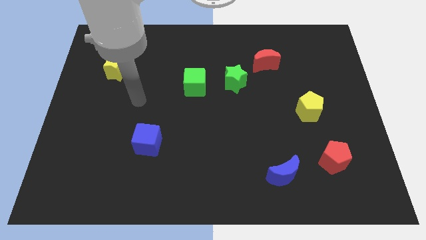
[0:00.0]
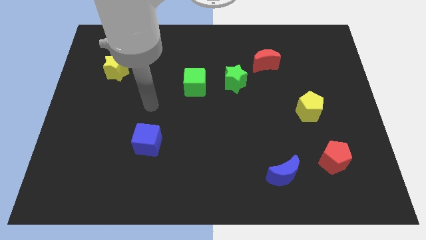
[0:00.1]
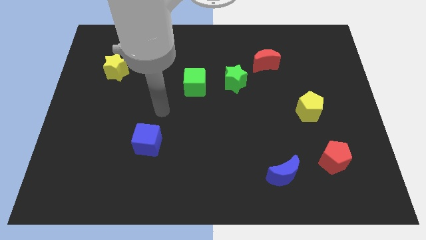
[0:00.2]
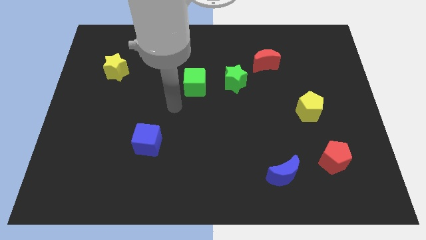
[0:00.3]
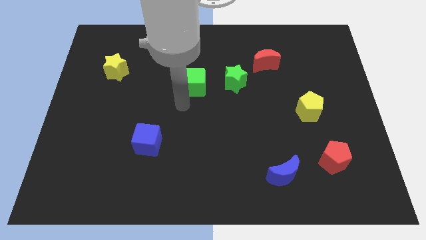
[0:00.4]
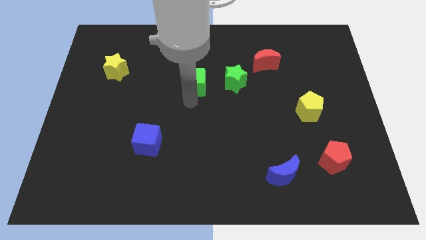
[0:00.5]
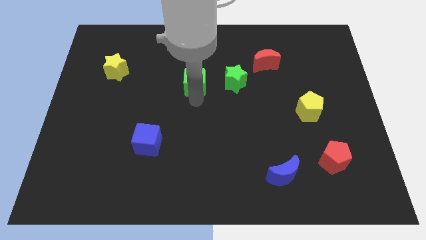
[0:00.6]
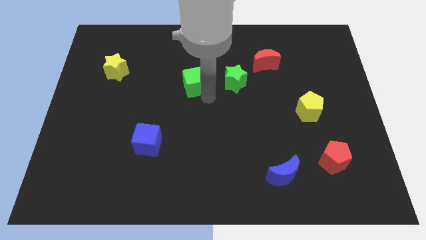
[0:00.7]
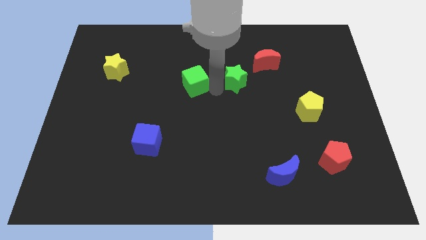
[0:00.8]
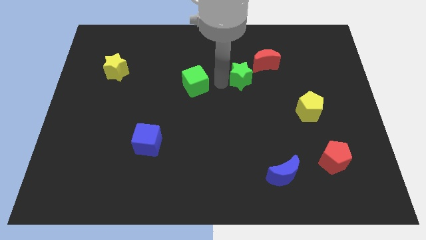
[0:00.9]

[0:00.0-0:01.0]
move the green cube away from the green star

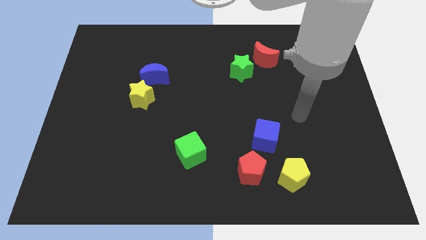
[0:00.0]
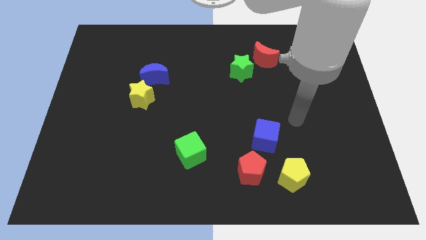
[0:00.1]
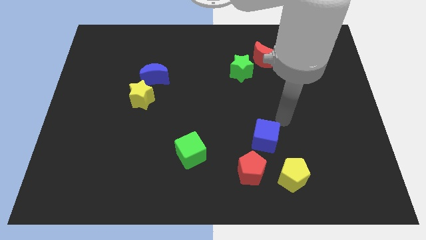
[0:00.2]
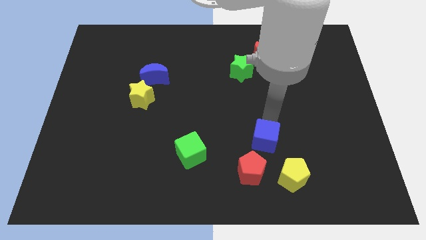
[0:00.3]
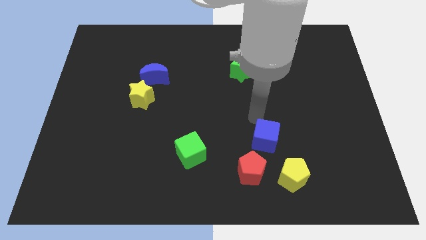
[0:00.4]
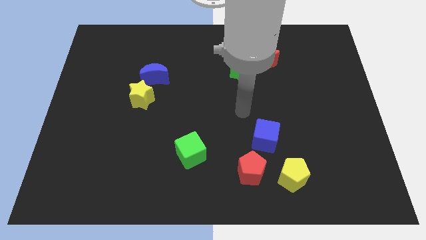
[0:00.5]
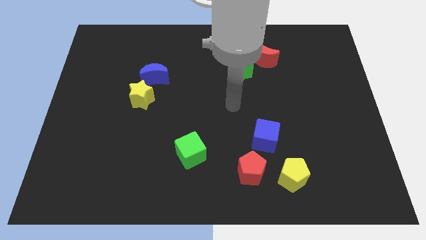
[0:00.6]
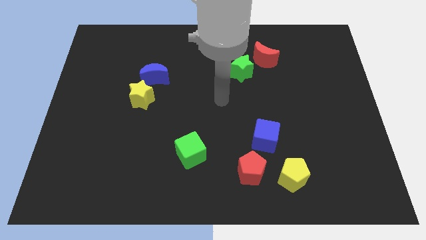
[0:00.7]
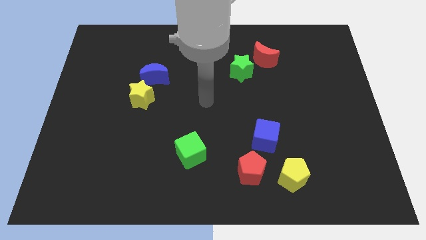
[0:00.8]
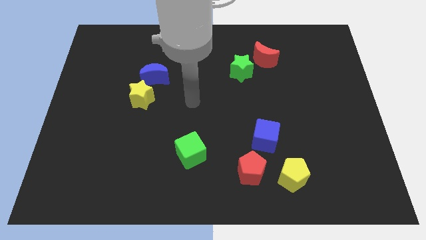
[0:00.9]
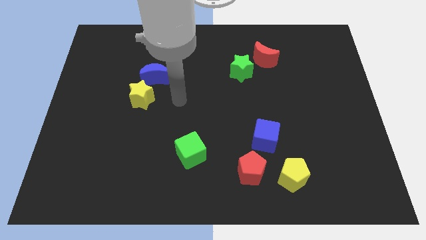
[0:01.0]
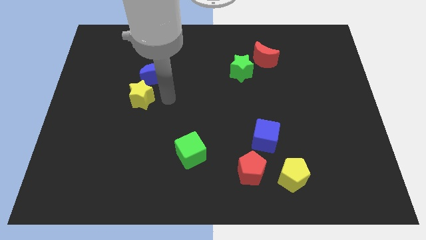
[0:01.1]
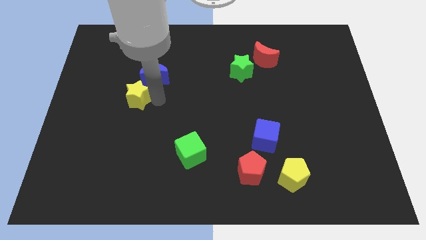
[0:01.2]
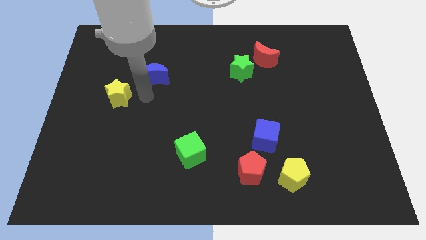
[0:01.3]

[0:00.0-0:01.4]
move the blue moon away from the yellow star

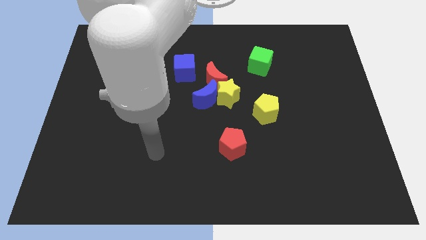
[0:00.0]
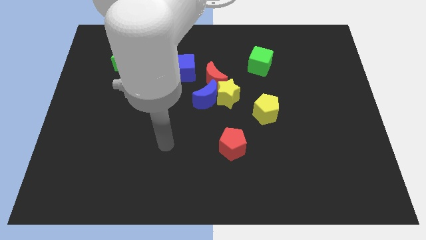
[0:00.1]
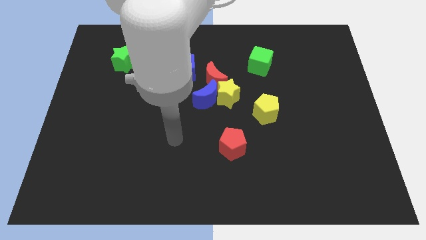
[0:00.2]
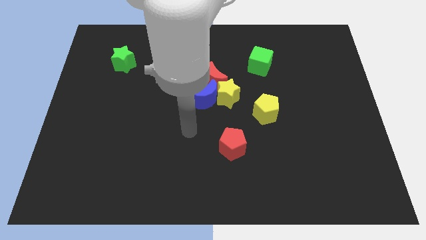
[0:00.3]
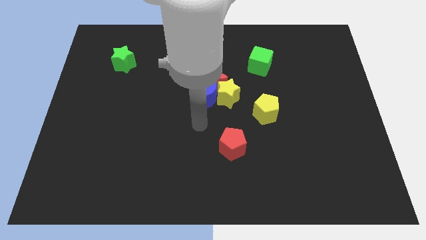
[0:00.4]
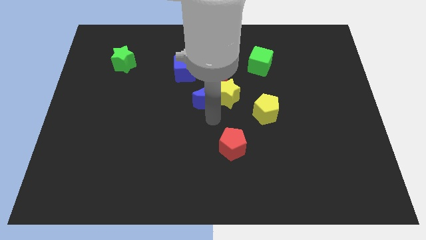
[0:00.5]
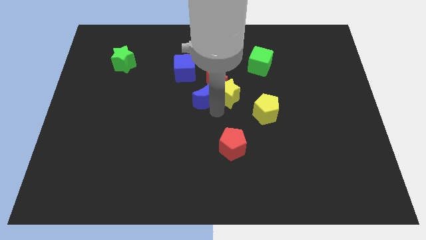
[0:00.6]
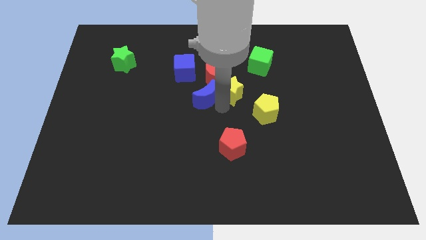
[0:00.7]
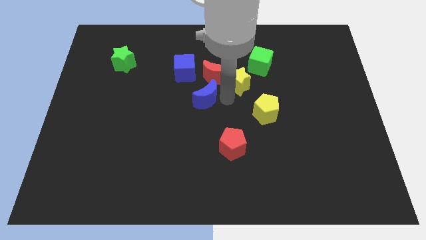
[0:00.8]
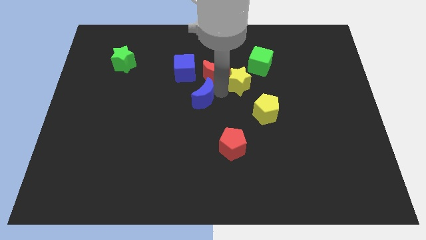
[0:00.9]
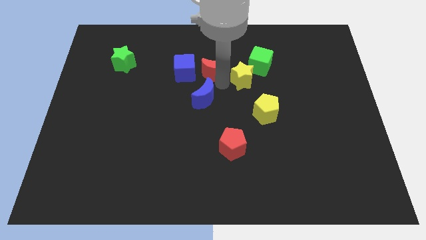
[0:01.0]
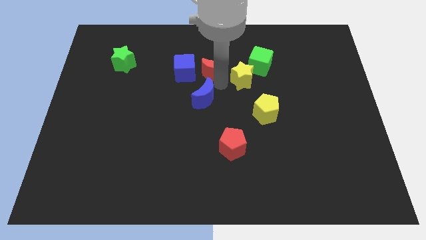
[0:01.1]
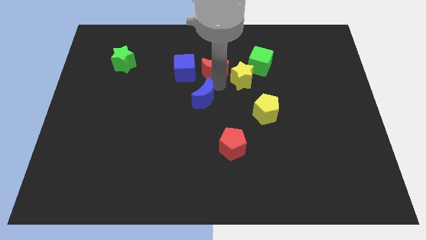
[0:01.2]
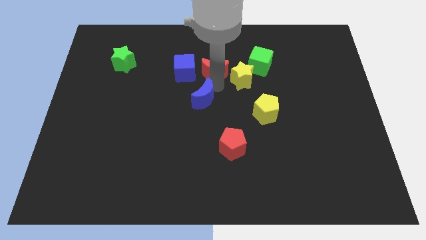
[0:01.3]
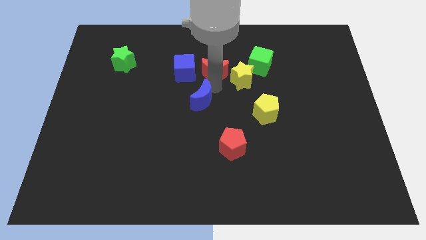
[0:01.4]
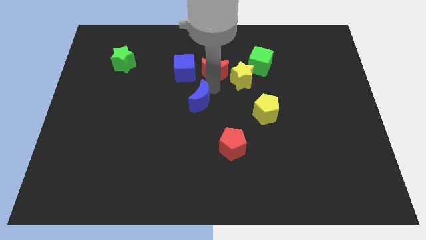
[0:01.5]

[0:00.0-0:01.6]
pull the blue moon apart from the yellow star and red moon

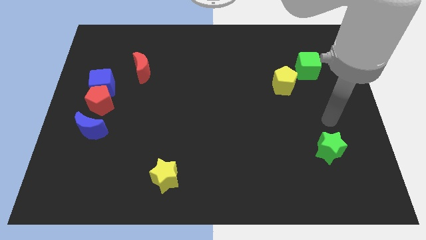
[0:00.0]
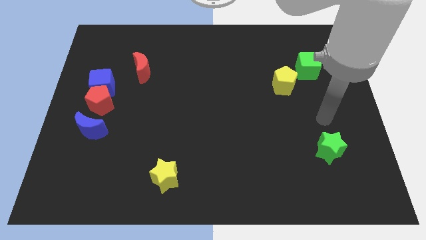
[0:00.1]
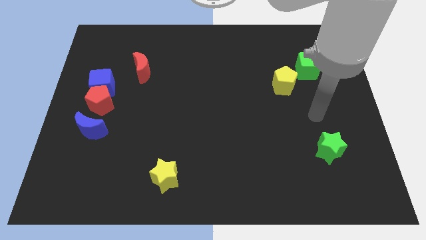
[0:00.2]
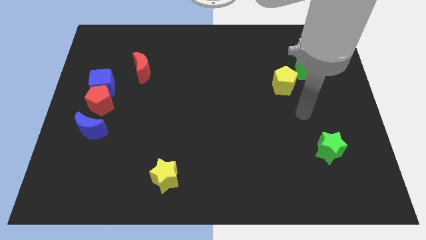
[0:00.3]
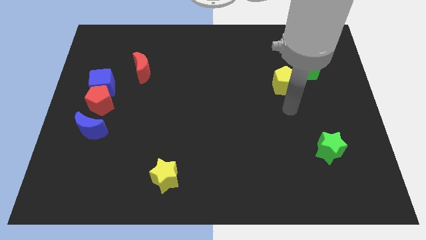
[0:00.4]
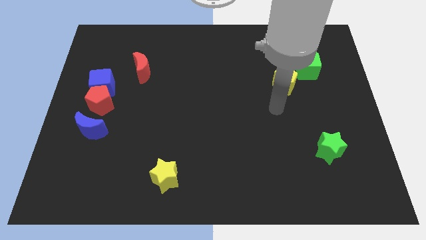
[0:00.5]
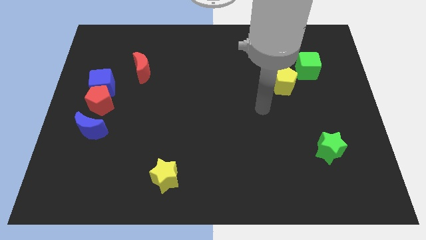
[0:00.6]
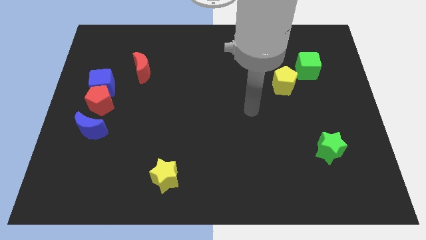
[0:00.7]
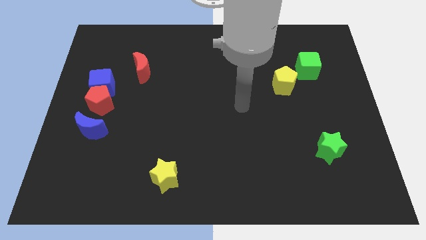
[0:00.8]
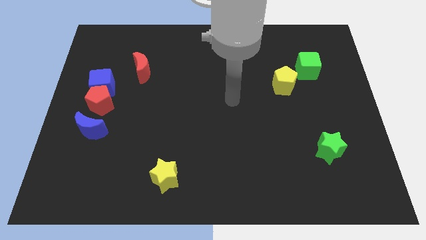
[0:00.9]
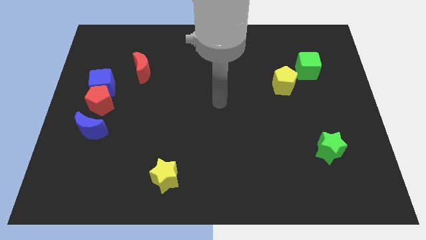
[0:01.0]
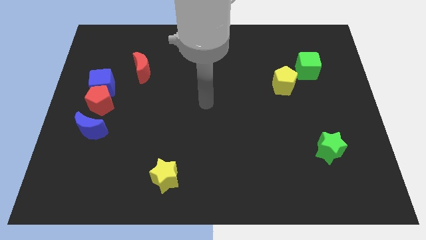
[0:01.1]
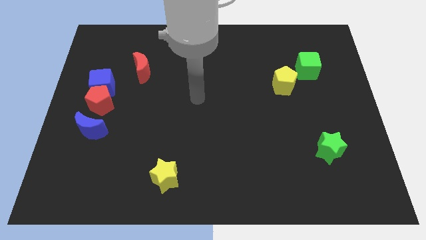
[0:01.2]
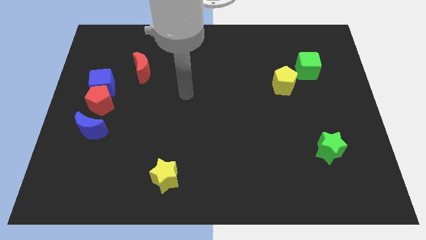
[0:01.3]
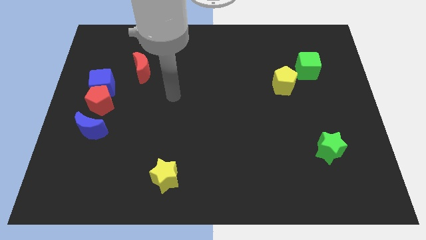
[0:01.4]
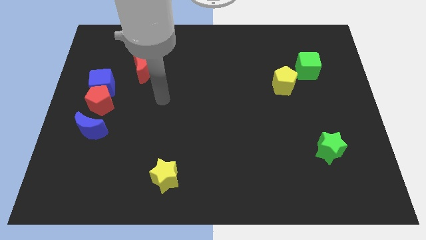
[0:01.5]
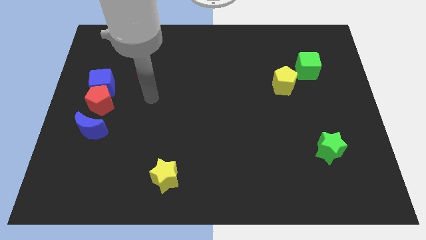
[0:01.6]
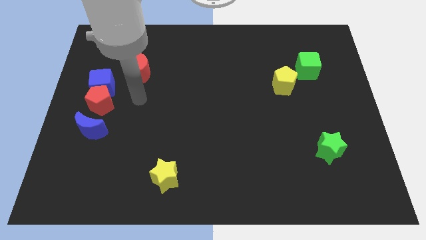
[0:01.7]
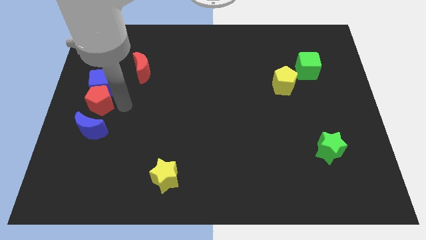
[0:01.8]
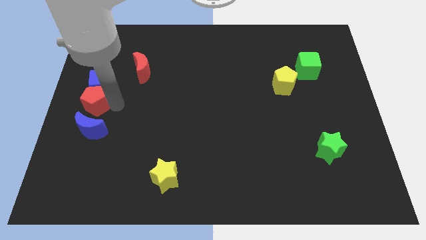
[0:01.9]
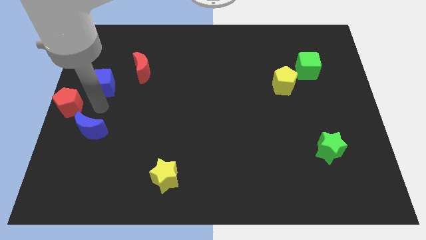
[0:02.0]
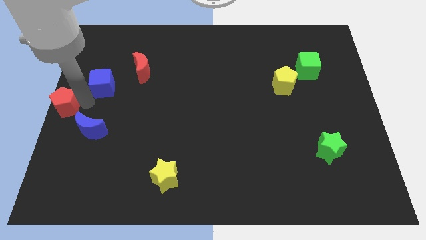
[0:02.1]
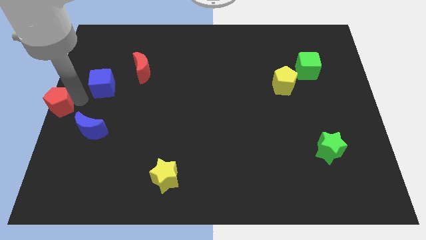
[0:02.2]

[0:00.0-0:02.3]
separate the blue cube from the red pentagon

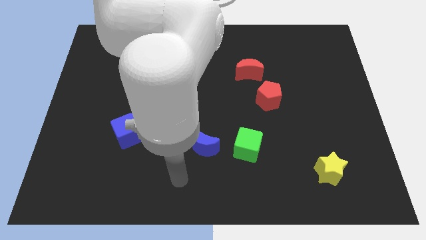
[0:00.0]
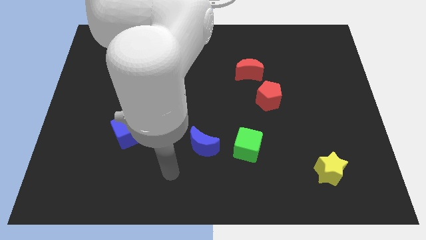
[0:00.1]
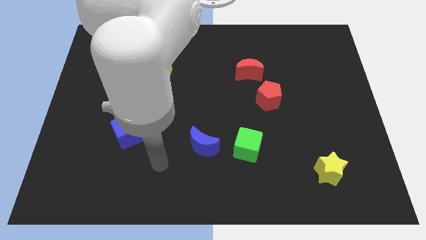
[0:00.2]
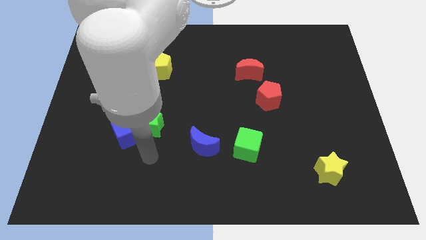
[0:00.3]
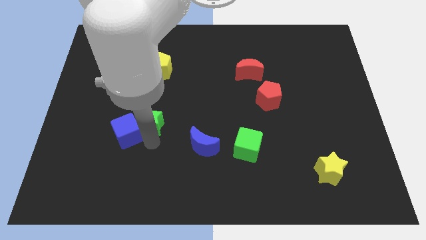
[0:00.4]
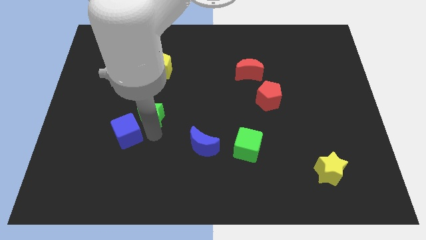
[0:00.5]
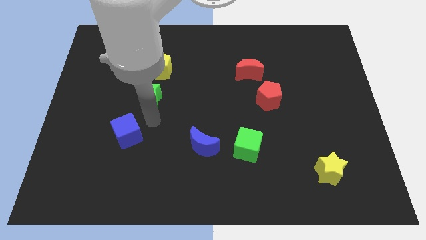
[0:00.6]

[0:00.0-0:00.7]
separate the blue cube from the green star

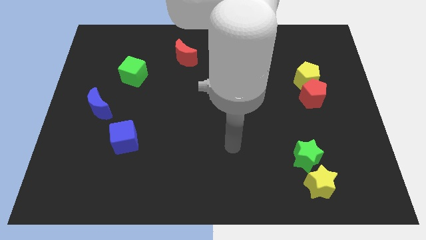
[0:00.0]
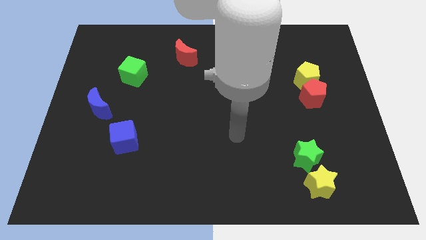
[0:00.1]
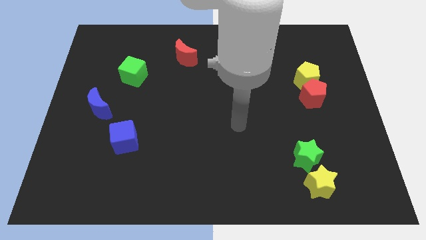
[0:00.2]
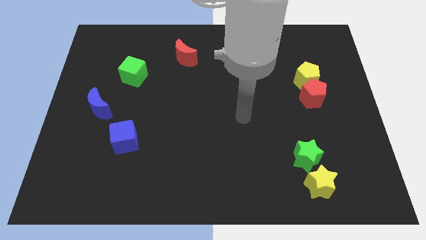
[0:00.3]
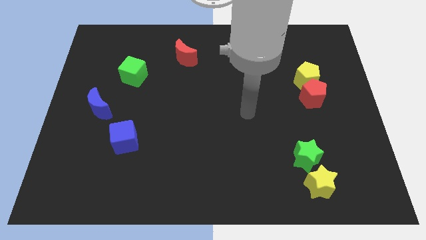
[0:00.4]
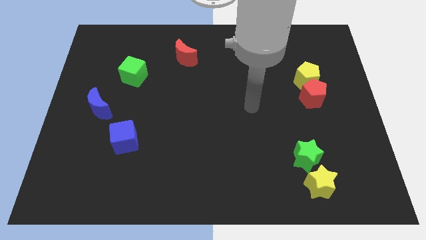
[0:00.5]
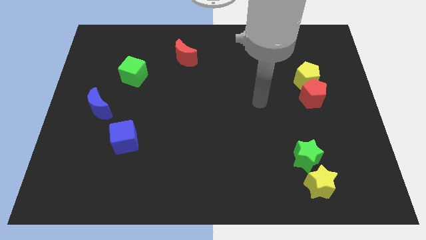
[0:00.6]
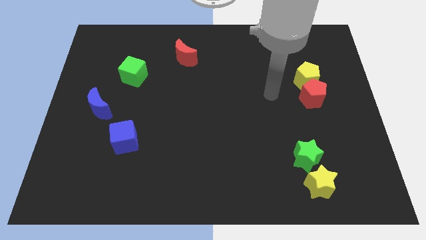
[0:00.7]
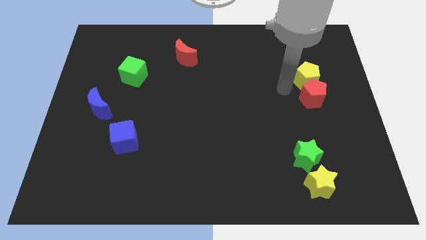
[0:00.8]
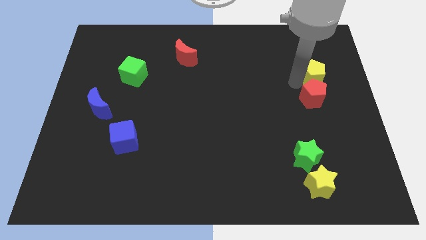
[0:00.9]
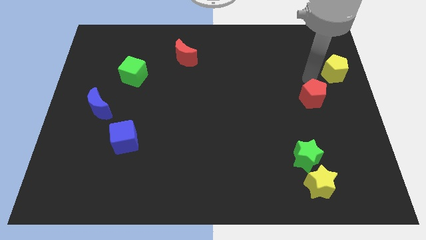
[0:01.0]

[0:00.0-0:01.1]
pull the red pentagon apart from the yellow pentagon

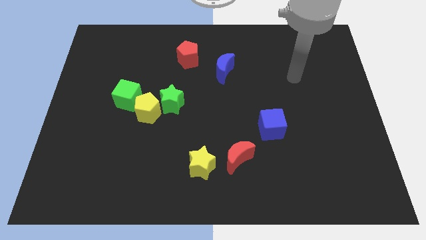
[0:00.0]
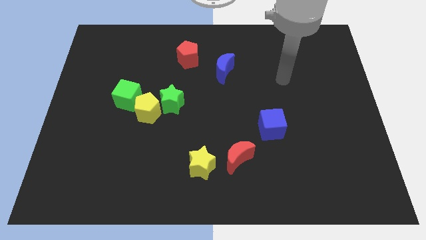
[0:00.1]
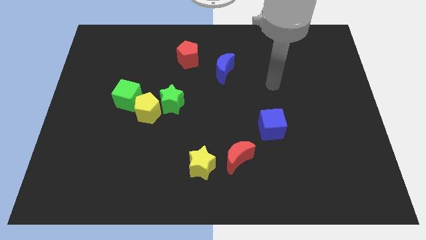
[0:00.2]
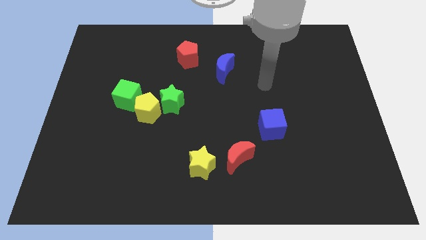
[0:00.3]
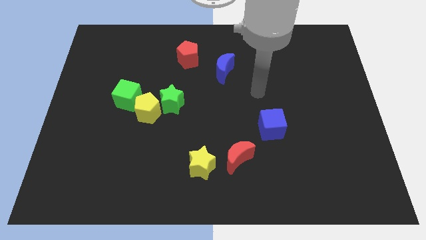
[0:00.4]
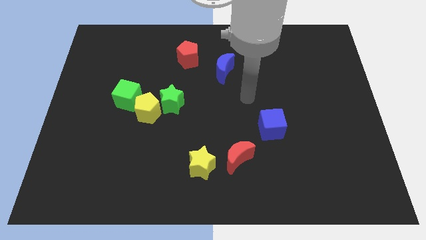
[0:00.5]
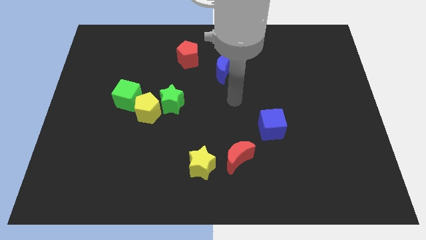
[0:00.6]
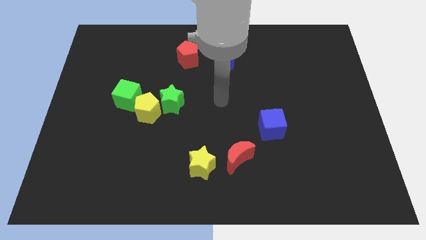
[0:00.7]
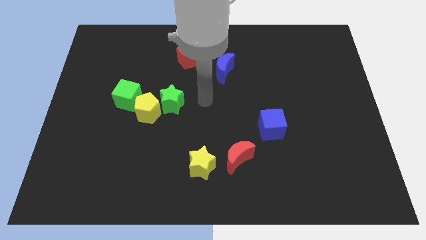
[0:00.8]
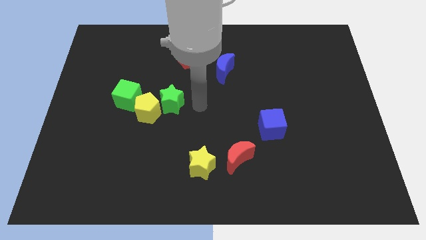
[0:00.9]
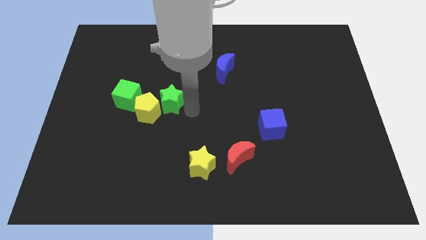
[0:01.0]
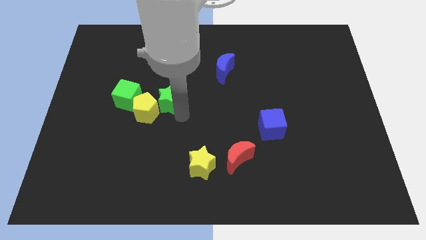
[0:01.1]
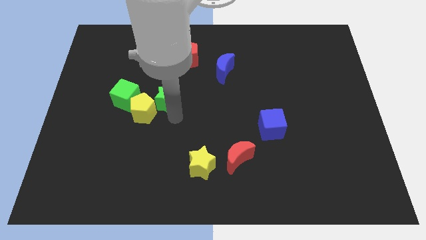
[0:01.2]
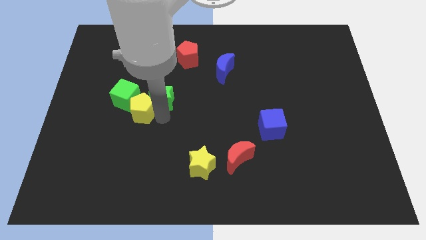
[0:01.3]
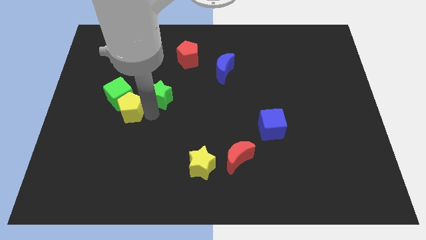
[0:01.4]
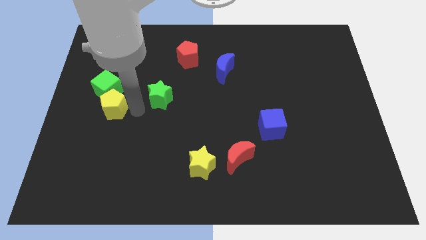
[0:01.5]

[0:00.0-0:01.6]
pull the green star apart from the yellow pentagon
